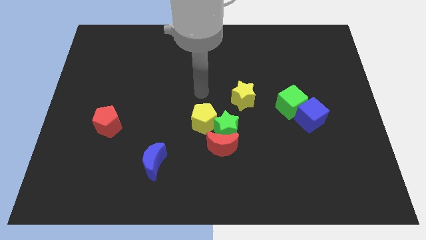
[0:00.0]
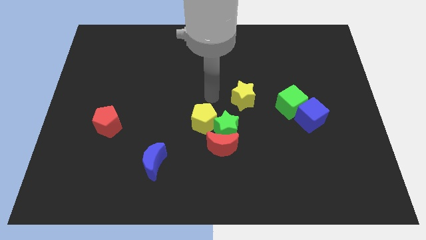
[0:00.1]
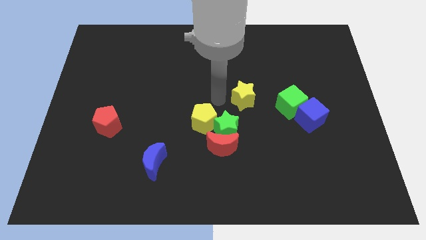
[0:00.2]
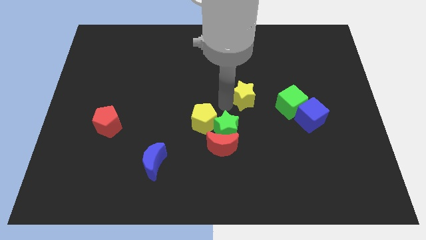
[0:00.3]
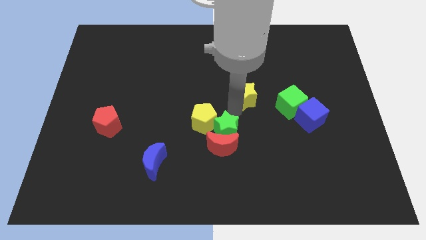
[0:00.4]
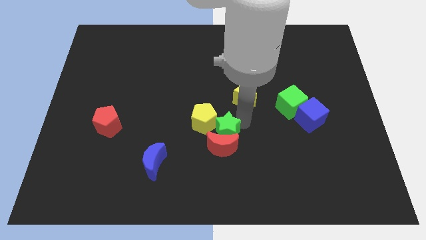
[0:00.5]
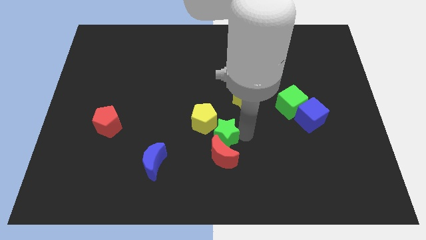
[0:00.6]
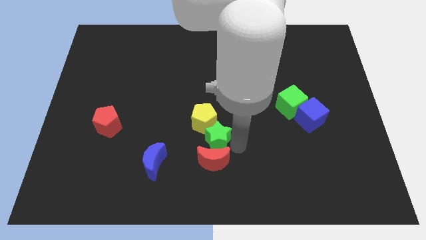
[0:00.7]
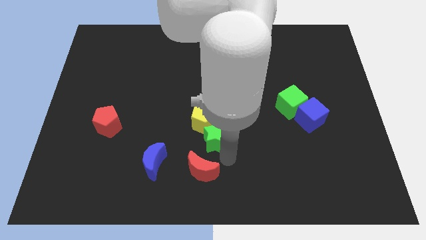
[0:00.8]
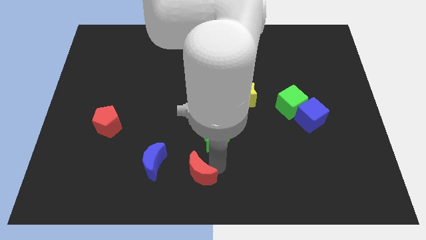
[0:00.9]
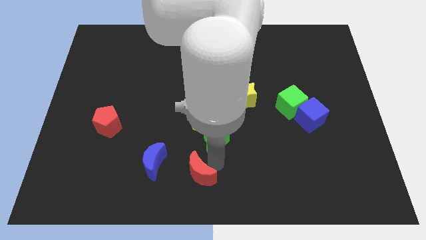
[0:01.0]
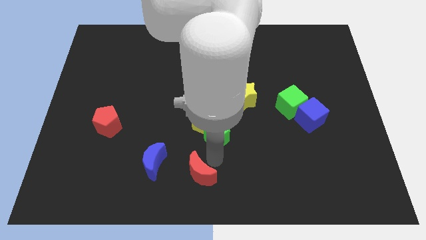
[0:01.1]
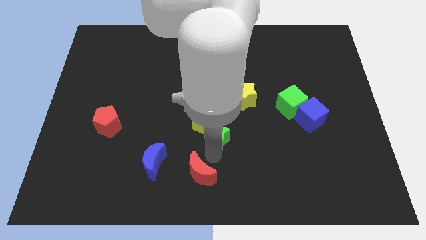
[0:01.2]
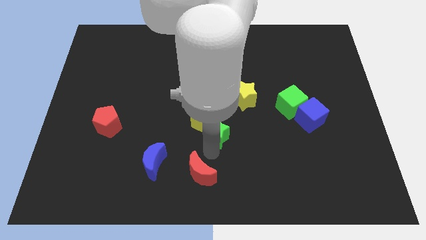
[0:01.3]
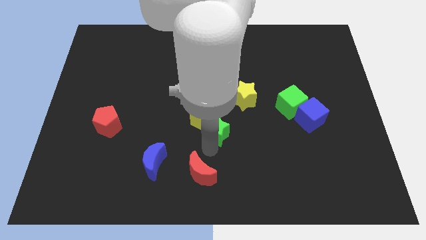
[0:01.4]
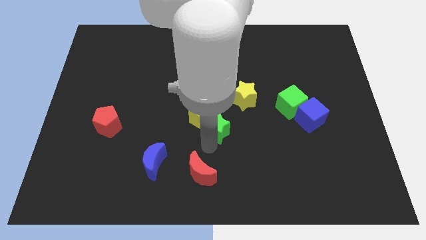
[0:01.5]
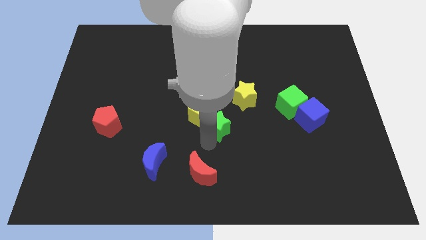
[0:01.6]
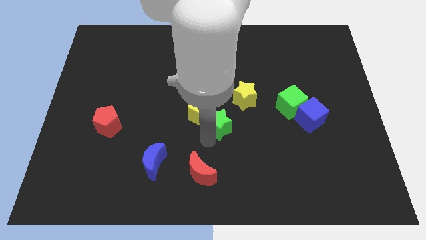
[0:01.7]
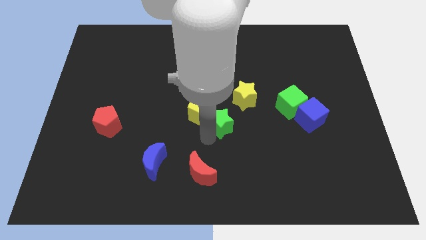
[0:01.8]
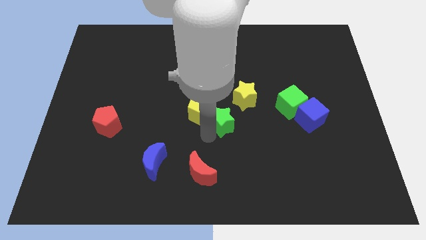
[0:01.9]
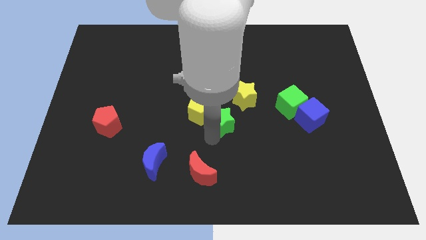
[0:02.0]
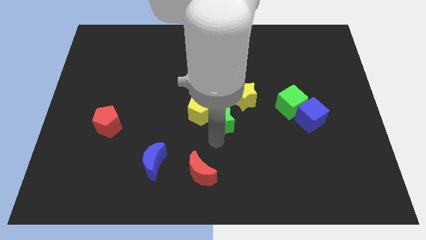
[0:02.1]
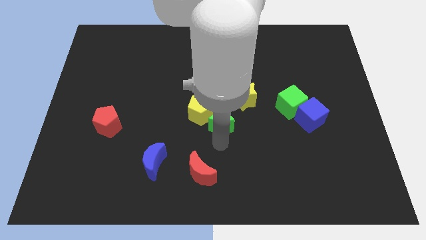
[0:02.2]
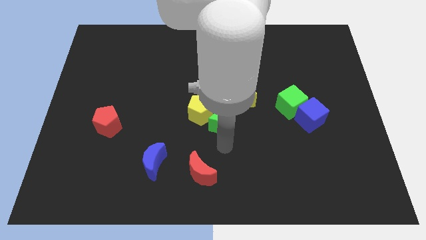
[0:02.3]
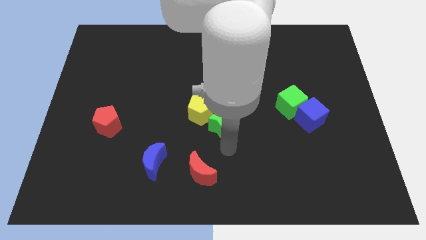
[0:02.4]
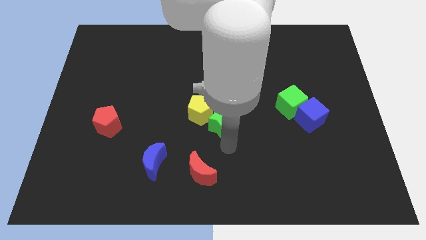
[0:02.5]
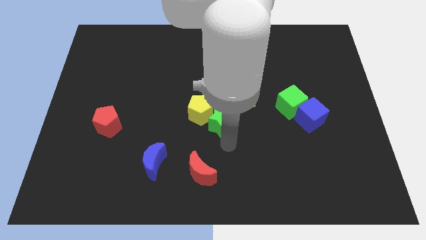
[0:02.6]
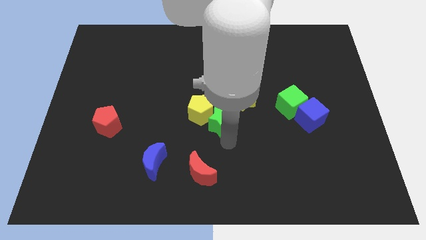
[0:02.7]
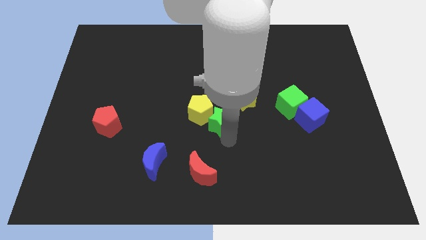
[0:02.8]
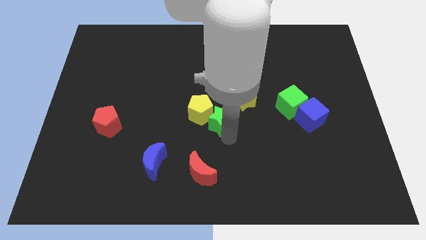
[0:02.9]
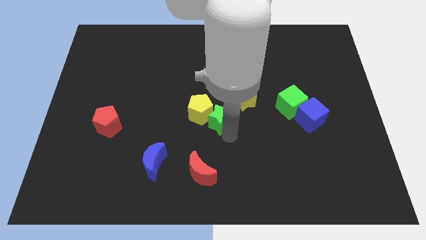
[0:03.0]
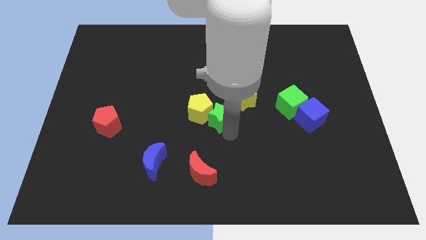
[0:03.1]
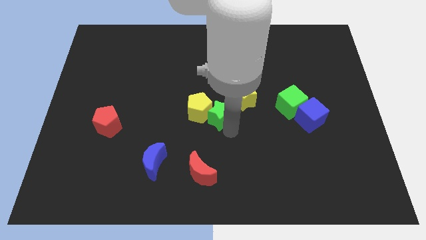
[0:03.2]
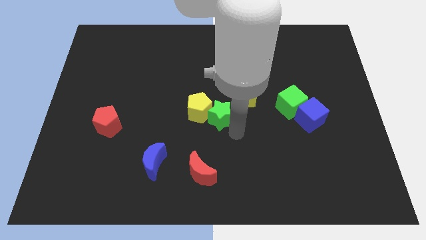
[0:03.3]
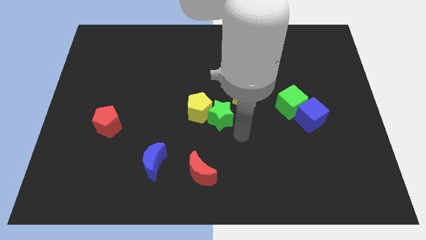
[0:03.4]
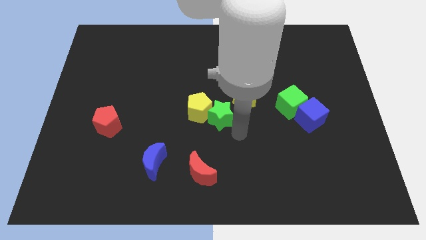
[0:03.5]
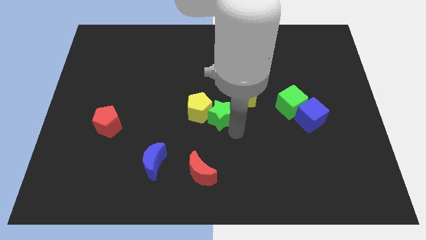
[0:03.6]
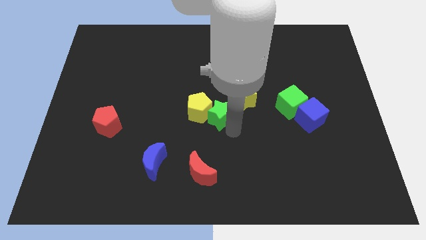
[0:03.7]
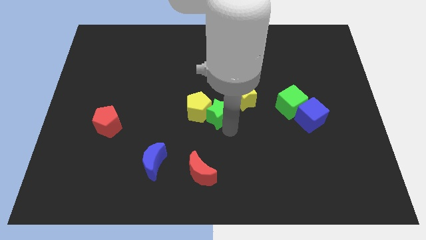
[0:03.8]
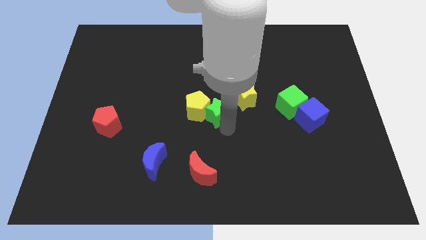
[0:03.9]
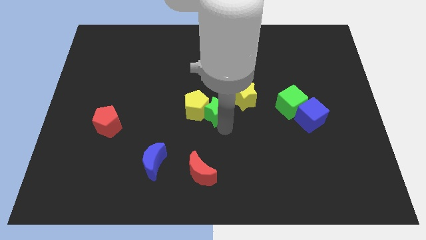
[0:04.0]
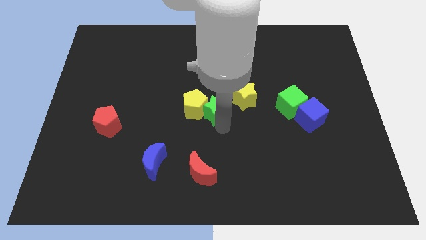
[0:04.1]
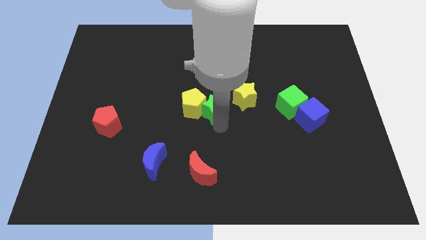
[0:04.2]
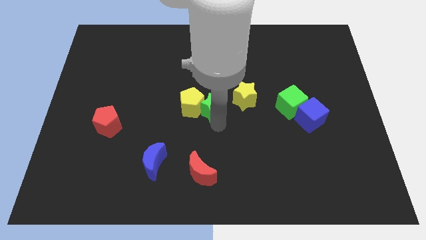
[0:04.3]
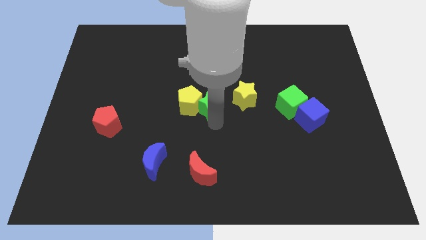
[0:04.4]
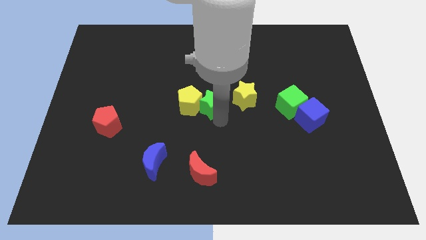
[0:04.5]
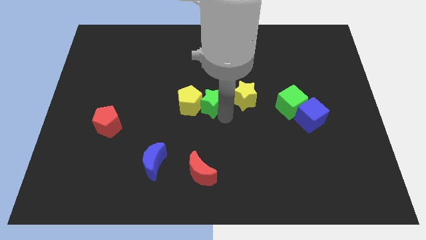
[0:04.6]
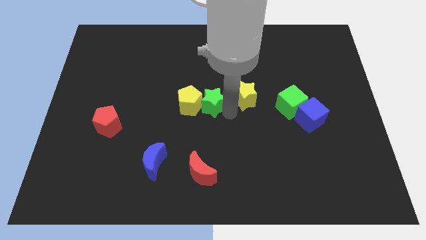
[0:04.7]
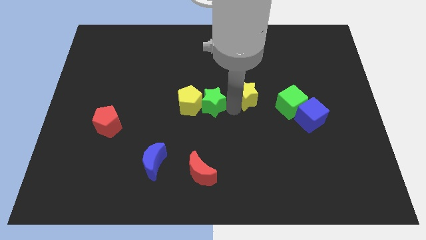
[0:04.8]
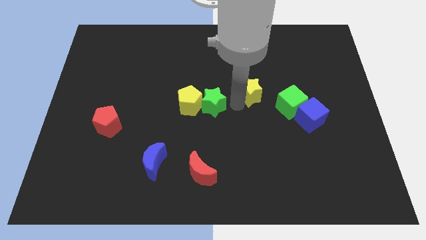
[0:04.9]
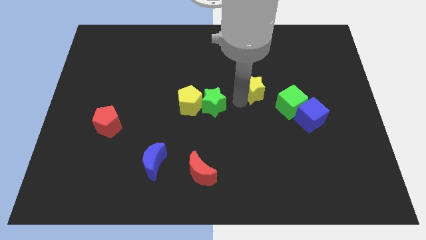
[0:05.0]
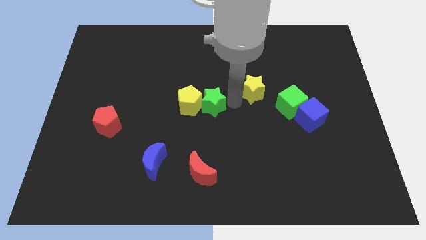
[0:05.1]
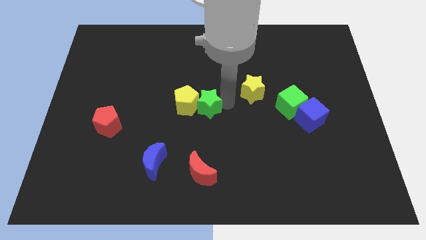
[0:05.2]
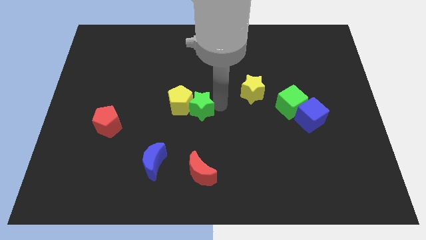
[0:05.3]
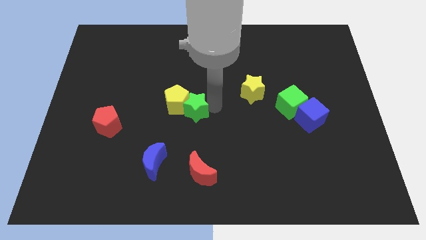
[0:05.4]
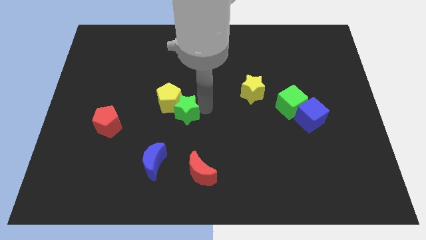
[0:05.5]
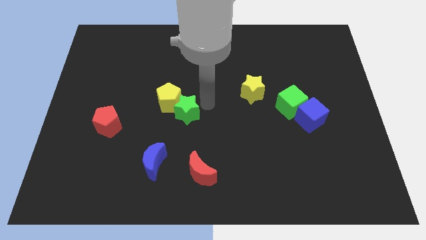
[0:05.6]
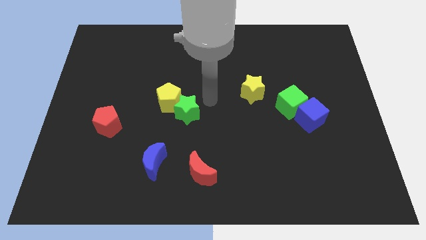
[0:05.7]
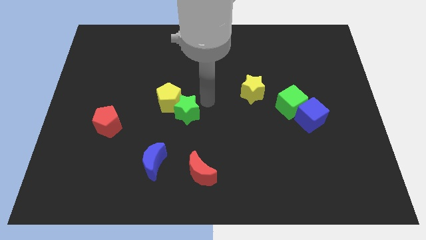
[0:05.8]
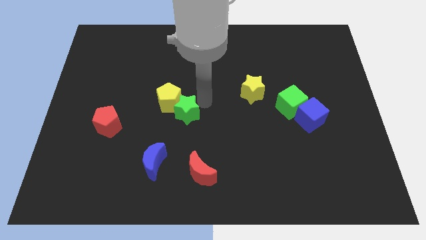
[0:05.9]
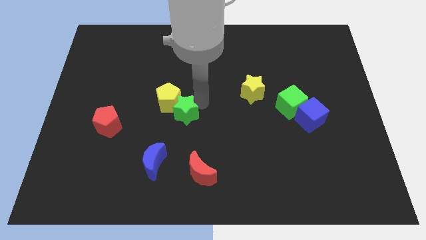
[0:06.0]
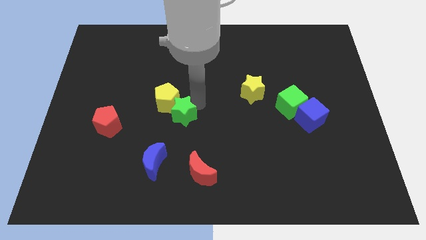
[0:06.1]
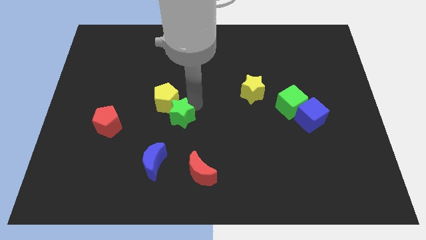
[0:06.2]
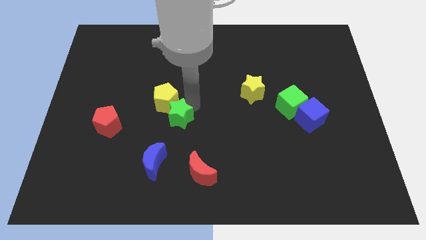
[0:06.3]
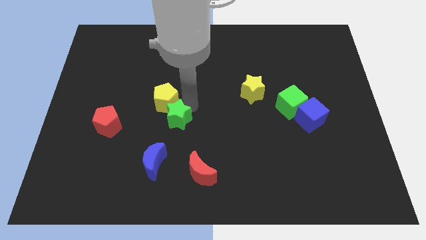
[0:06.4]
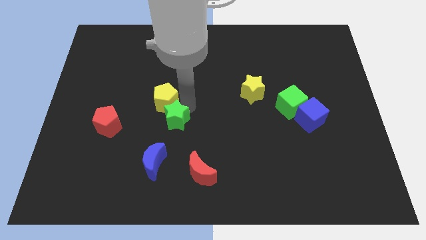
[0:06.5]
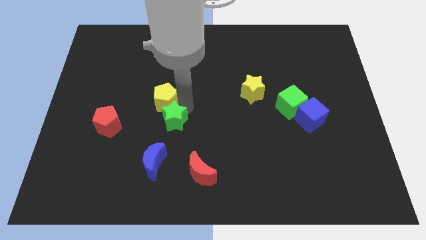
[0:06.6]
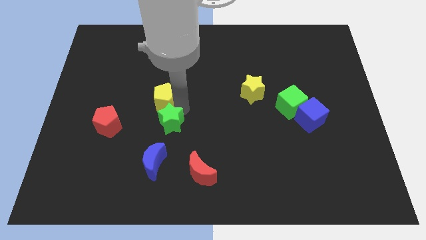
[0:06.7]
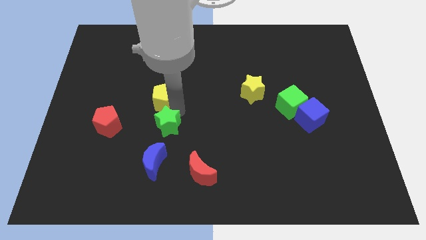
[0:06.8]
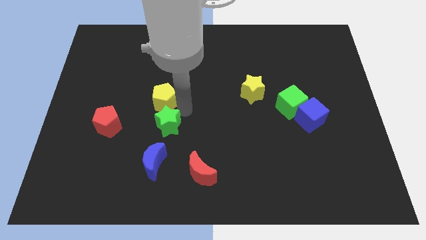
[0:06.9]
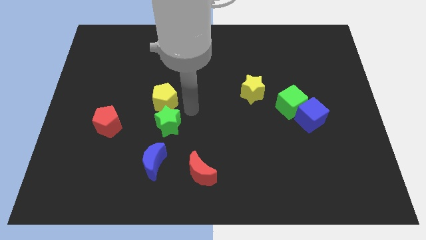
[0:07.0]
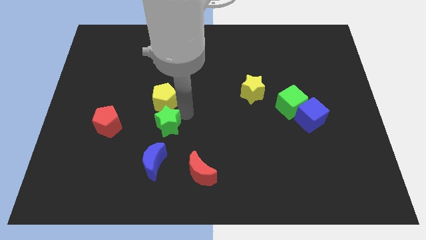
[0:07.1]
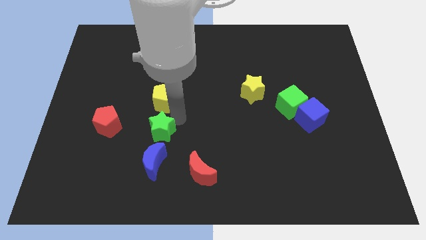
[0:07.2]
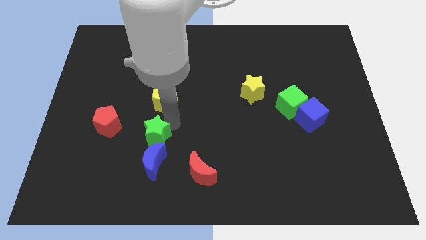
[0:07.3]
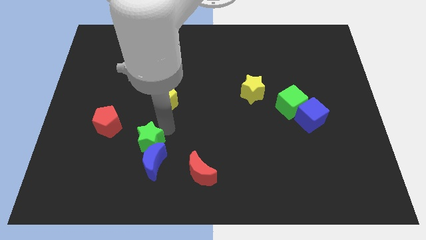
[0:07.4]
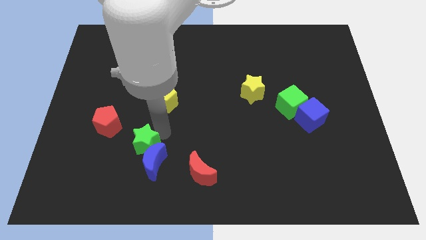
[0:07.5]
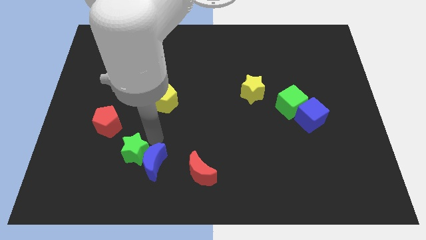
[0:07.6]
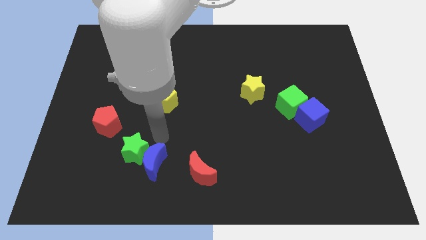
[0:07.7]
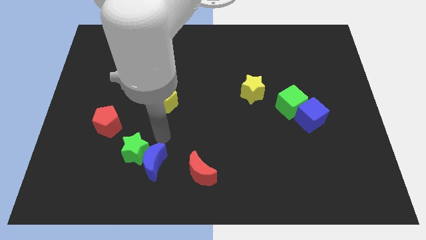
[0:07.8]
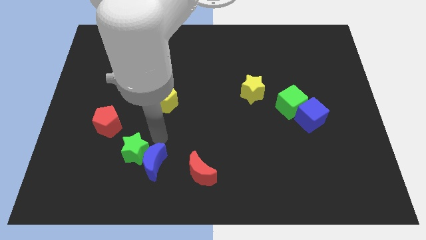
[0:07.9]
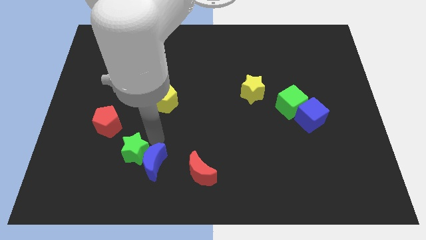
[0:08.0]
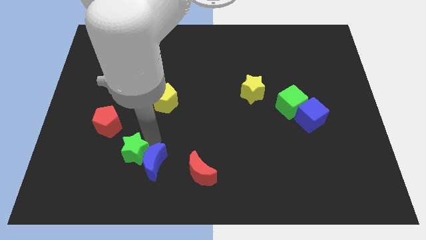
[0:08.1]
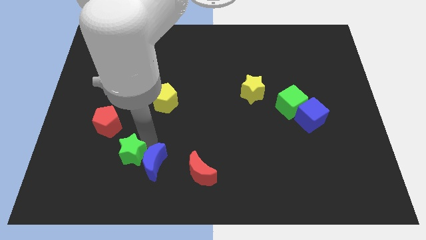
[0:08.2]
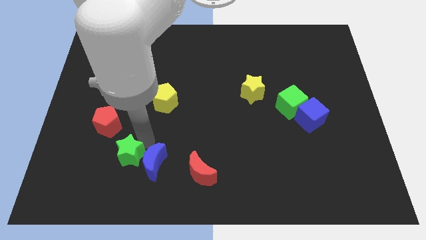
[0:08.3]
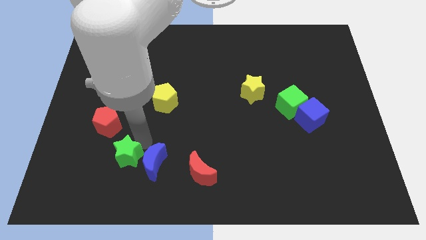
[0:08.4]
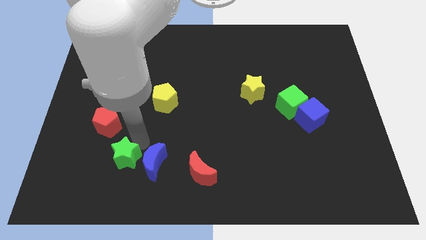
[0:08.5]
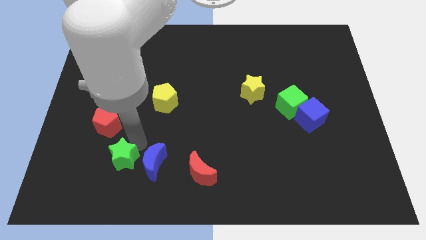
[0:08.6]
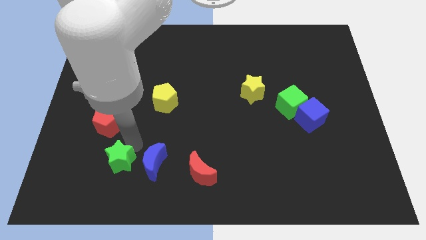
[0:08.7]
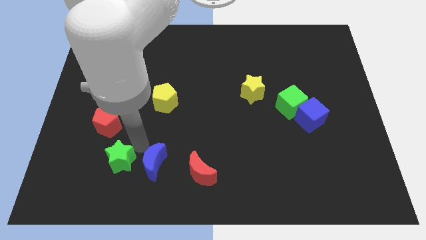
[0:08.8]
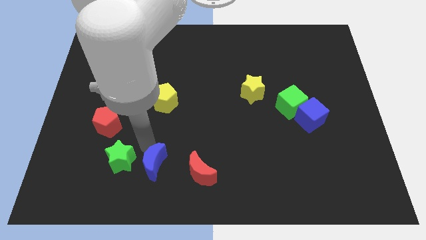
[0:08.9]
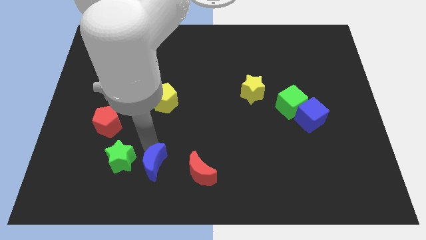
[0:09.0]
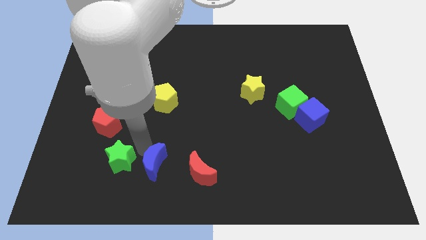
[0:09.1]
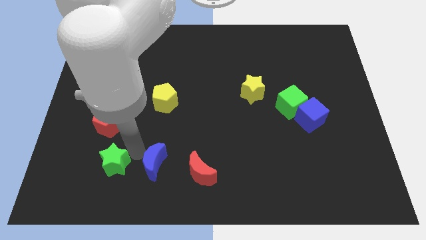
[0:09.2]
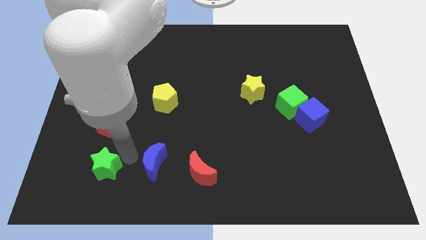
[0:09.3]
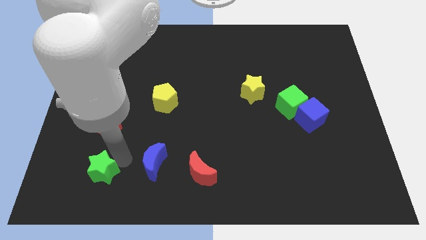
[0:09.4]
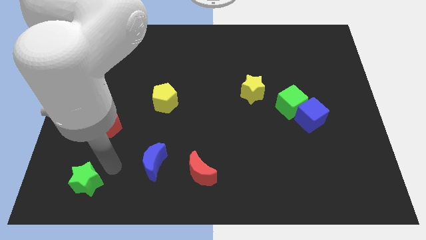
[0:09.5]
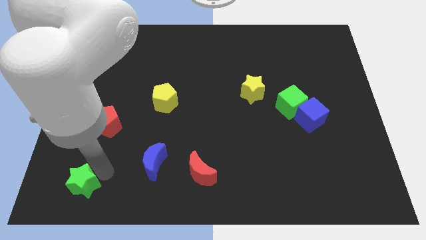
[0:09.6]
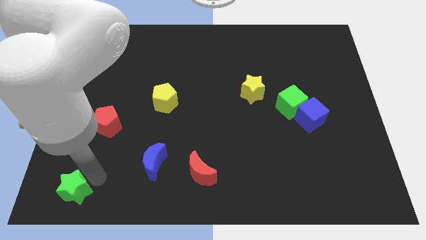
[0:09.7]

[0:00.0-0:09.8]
move the green star to the lower left corner
